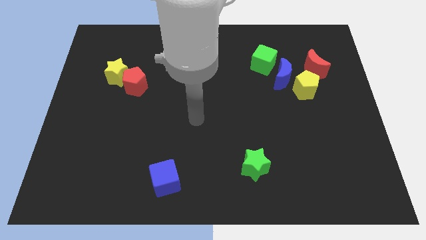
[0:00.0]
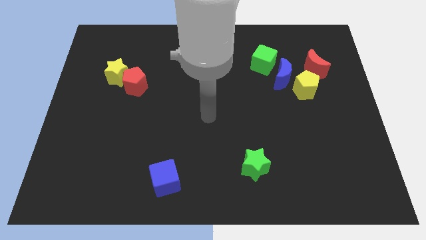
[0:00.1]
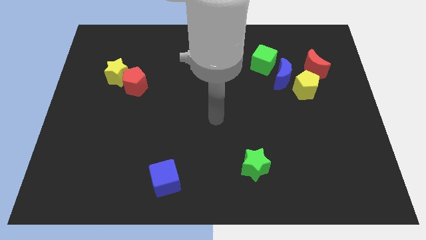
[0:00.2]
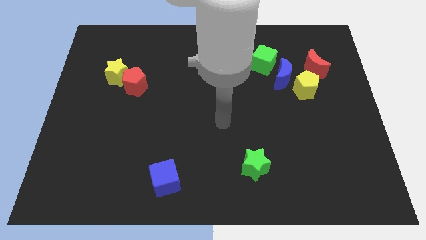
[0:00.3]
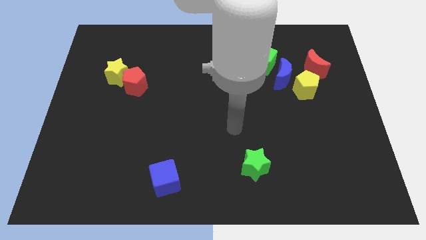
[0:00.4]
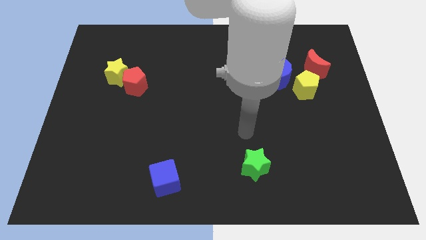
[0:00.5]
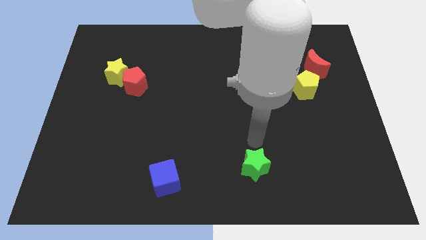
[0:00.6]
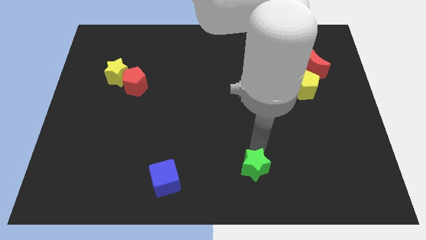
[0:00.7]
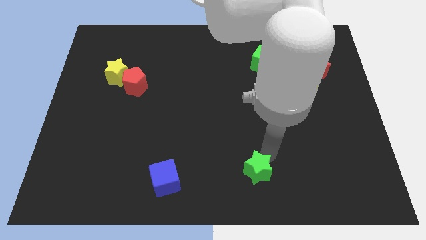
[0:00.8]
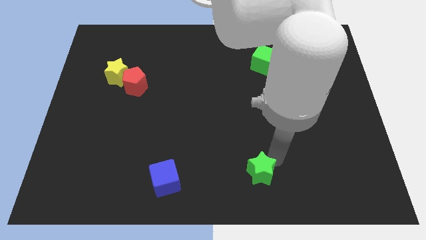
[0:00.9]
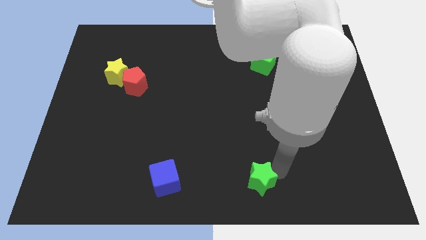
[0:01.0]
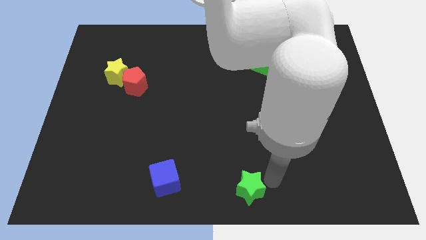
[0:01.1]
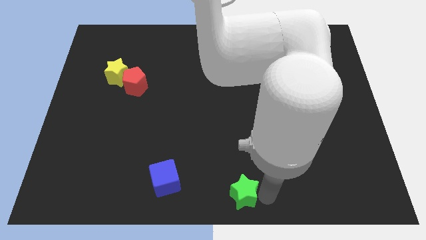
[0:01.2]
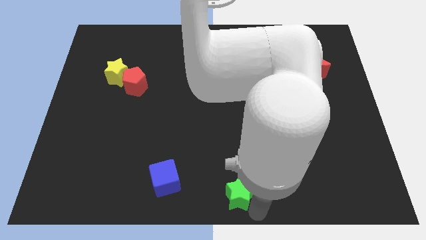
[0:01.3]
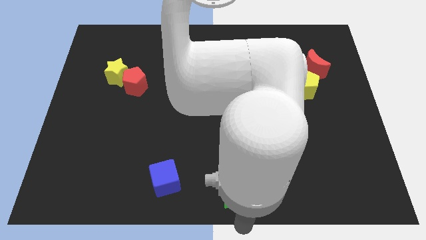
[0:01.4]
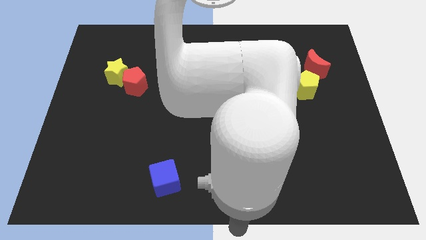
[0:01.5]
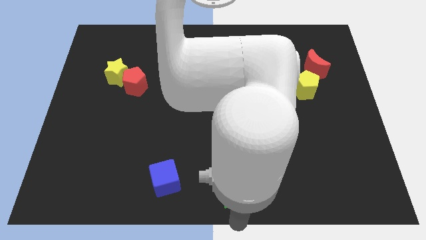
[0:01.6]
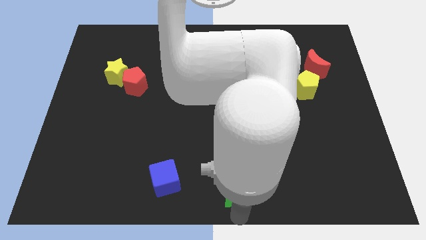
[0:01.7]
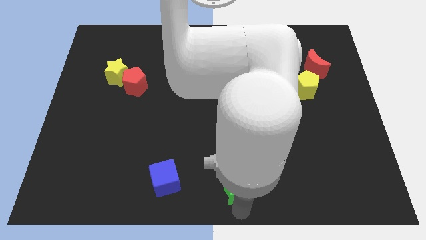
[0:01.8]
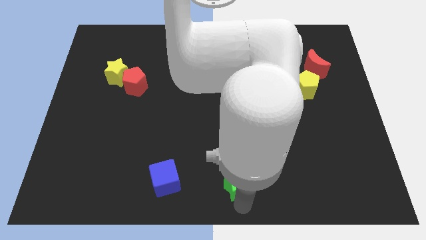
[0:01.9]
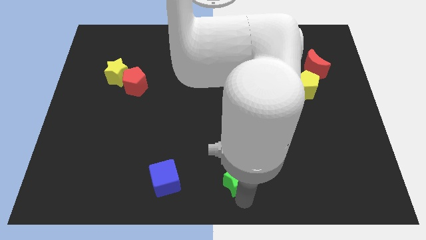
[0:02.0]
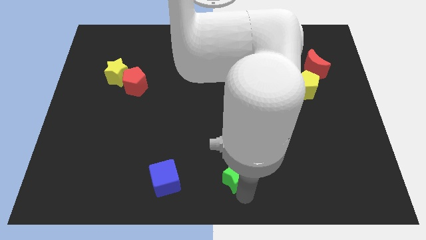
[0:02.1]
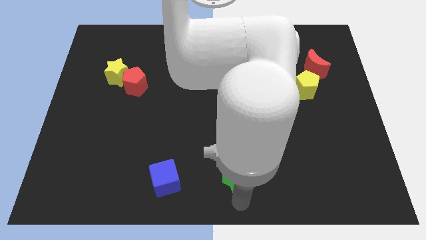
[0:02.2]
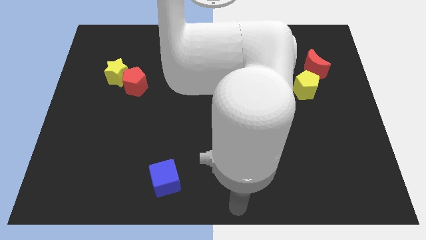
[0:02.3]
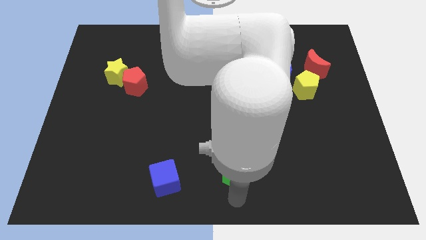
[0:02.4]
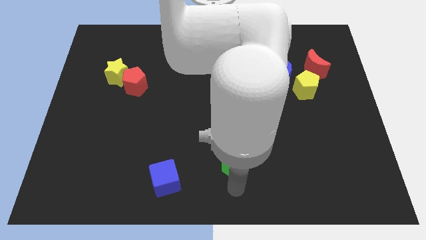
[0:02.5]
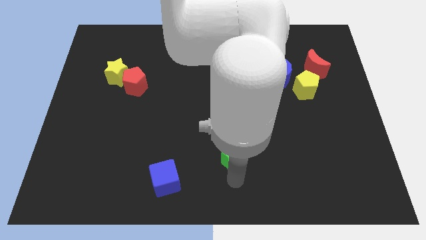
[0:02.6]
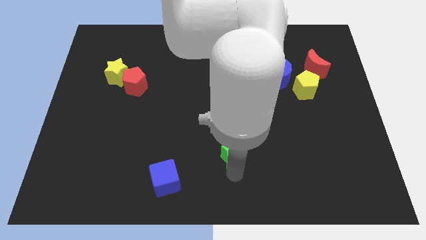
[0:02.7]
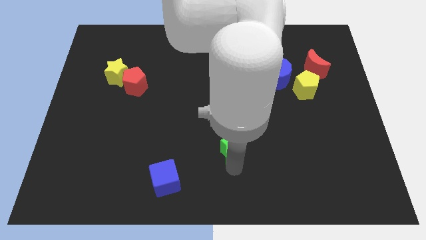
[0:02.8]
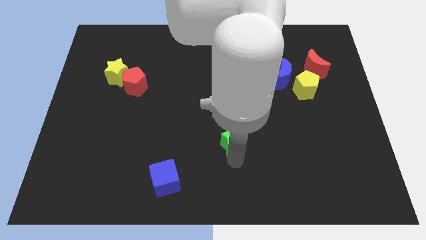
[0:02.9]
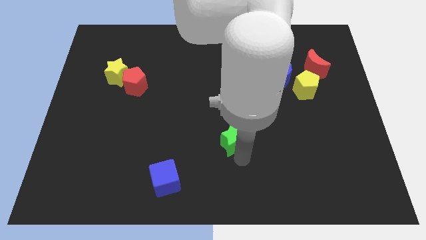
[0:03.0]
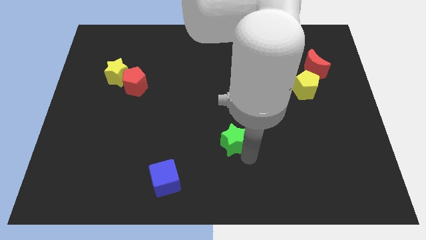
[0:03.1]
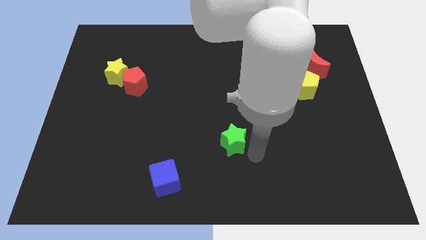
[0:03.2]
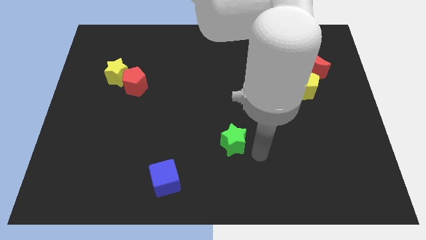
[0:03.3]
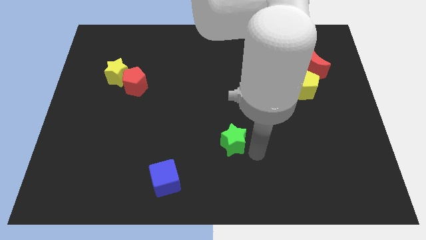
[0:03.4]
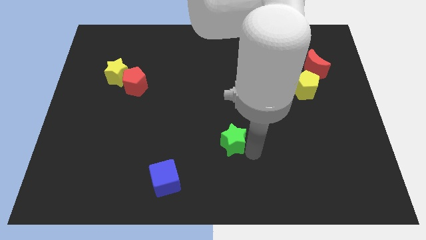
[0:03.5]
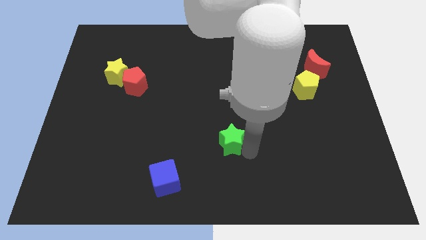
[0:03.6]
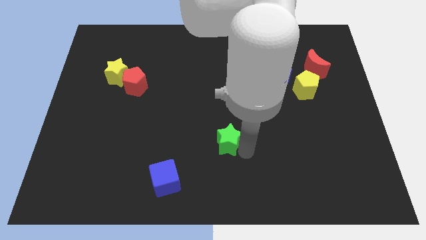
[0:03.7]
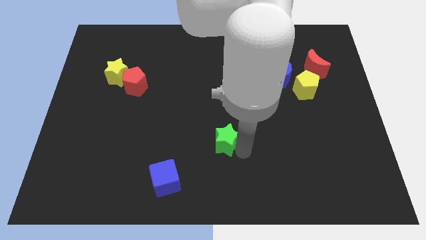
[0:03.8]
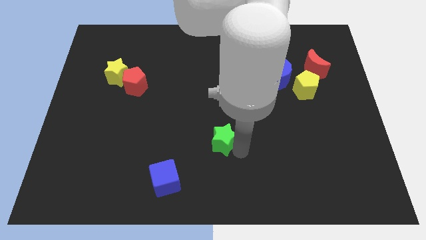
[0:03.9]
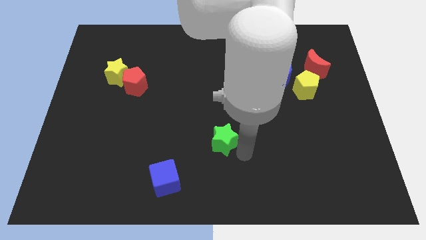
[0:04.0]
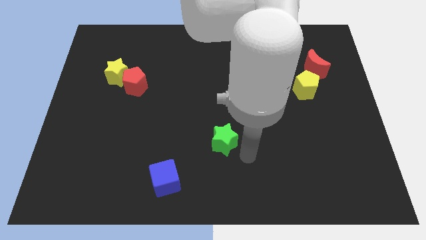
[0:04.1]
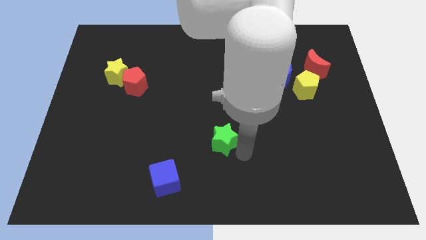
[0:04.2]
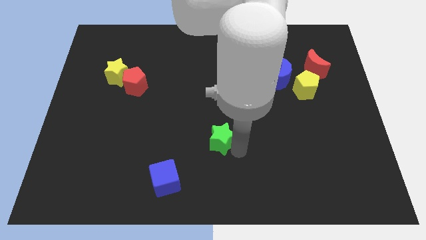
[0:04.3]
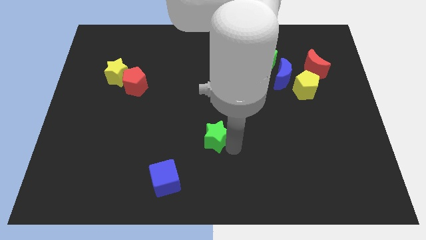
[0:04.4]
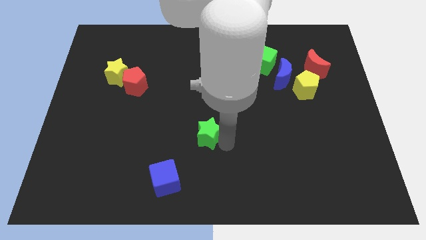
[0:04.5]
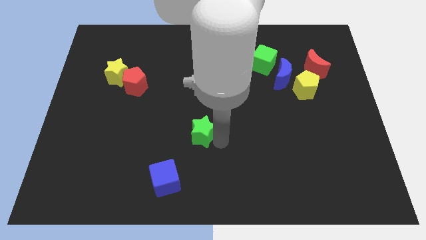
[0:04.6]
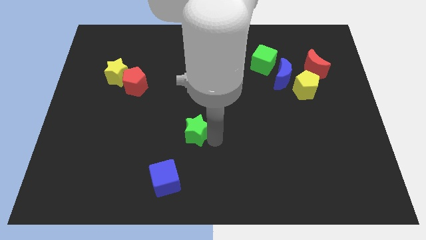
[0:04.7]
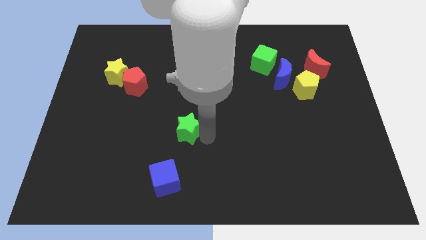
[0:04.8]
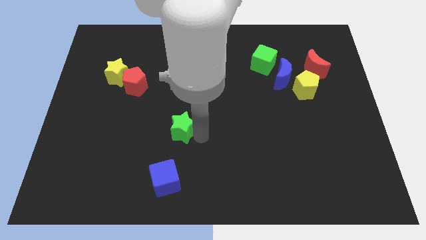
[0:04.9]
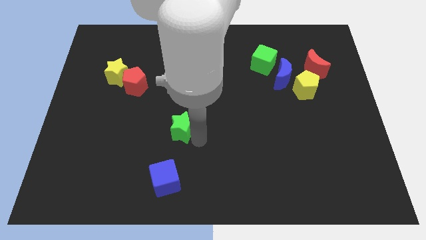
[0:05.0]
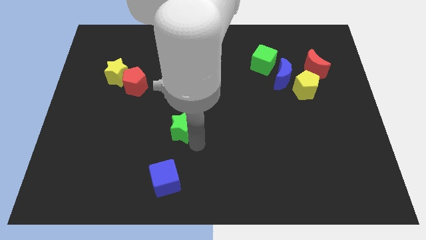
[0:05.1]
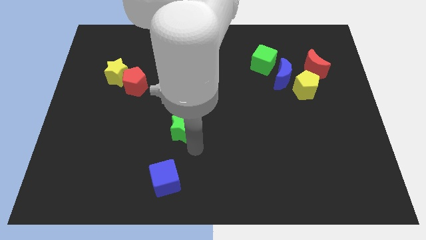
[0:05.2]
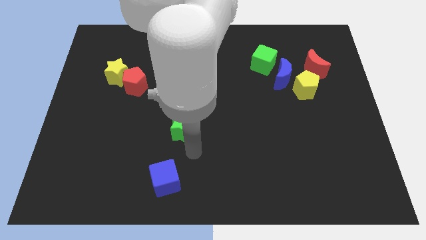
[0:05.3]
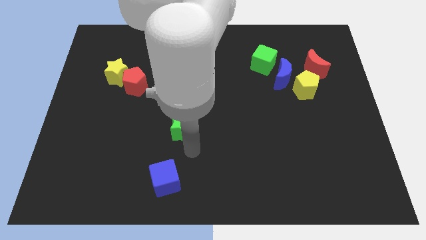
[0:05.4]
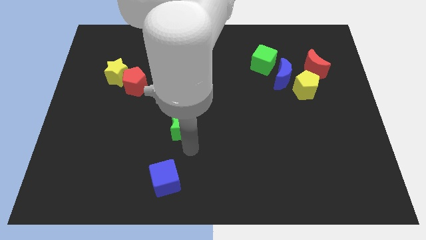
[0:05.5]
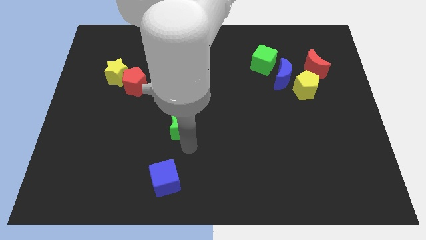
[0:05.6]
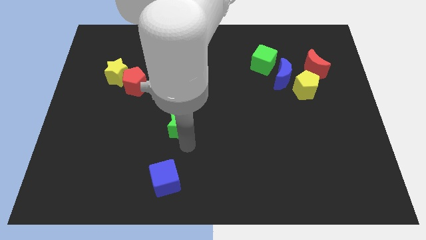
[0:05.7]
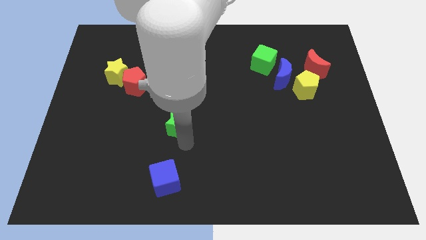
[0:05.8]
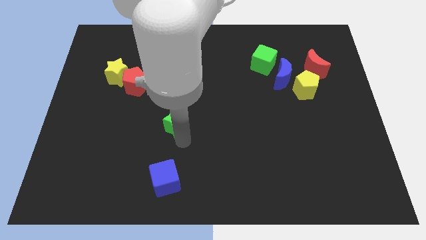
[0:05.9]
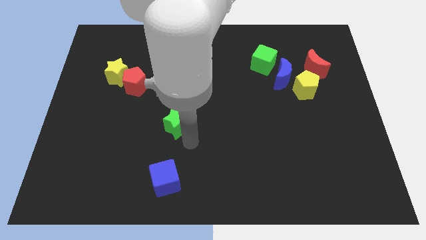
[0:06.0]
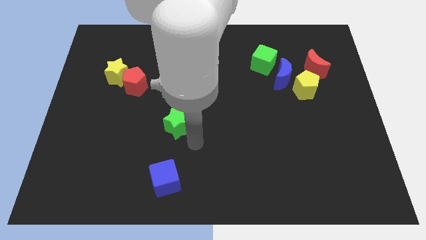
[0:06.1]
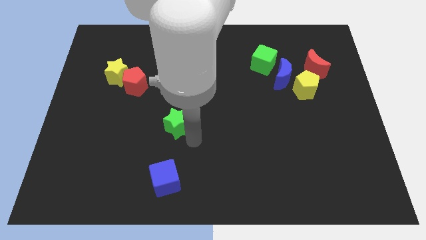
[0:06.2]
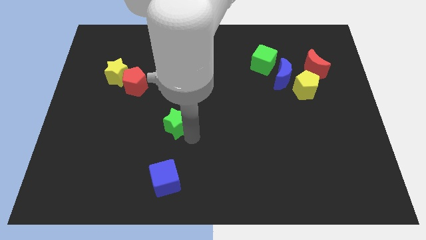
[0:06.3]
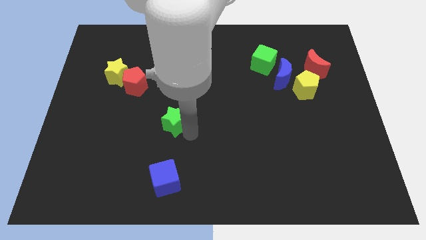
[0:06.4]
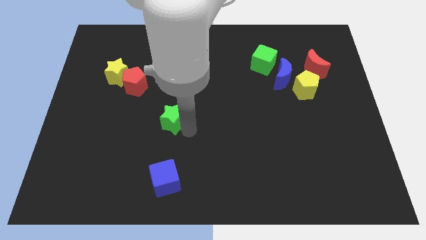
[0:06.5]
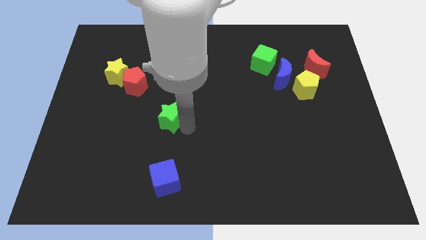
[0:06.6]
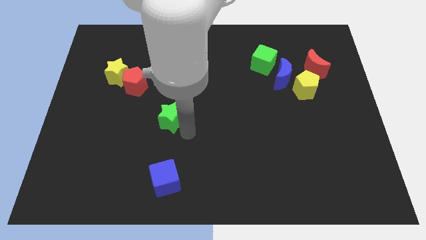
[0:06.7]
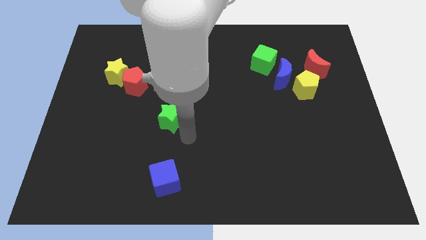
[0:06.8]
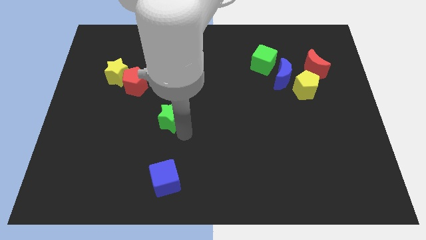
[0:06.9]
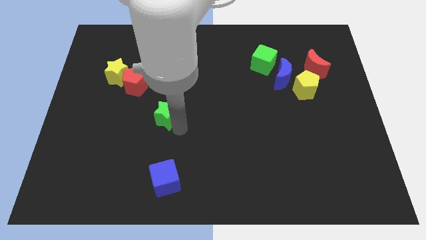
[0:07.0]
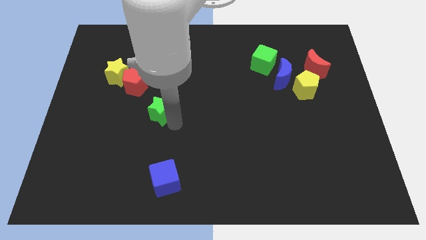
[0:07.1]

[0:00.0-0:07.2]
put the green star diagonally down and to the right of the red pentagon
